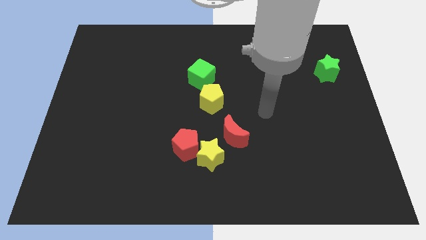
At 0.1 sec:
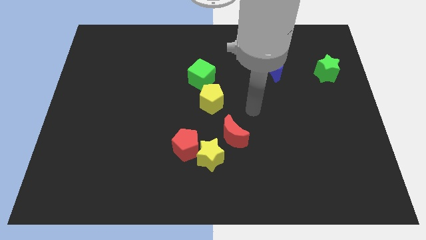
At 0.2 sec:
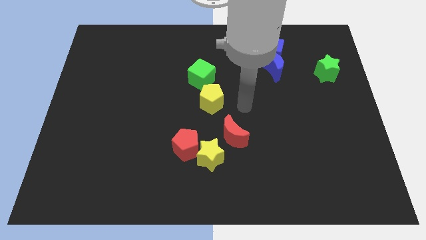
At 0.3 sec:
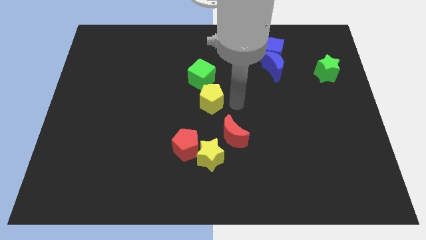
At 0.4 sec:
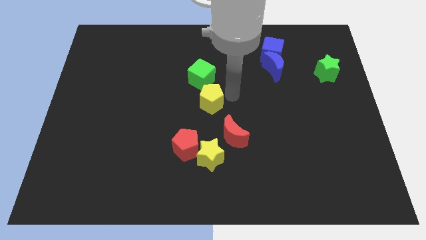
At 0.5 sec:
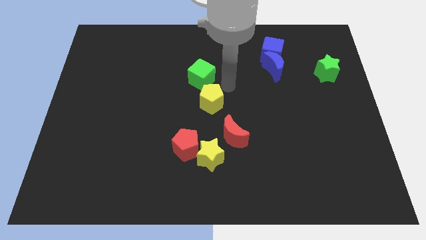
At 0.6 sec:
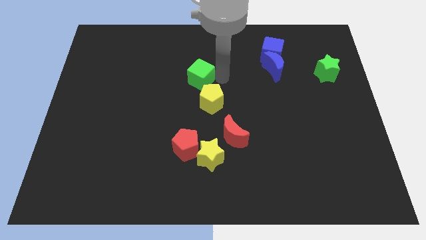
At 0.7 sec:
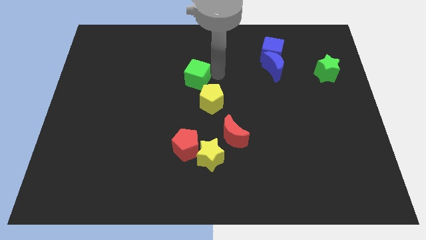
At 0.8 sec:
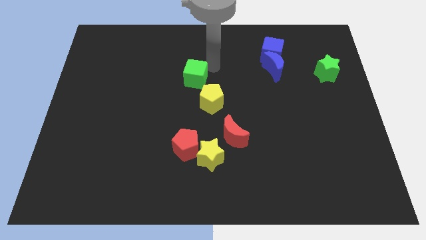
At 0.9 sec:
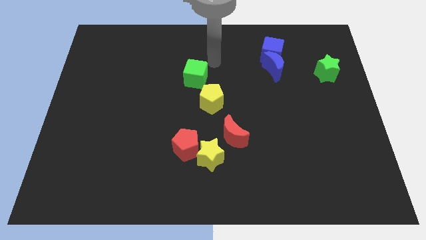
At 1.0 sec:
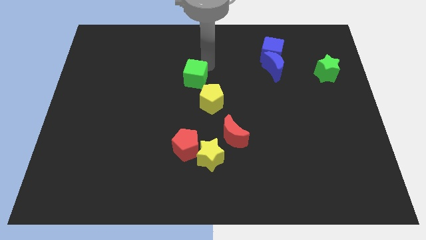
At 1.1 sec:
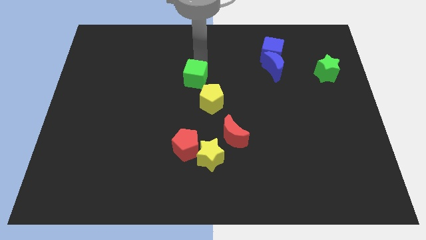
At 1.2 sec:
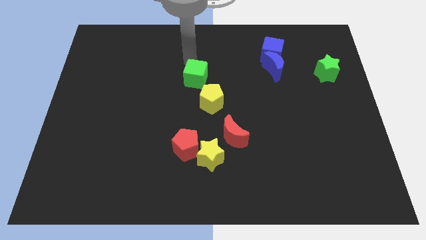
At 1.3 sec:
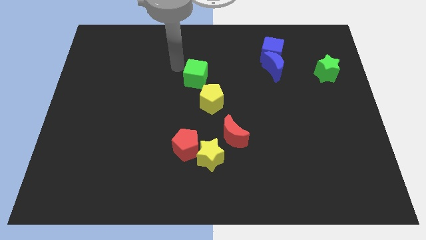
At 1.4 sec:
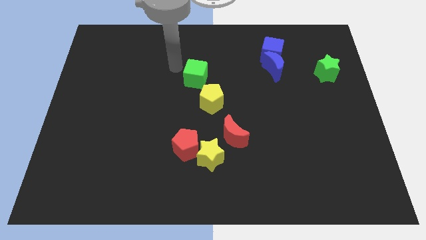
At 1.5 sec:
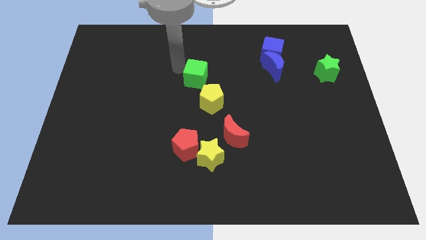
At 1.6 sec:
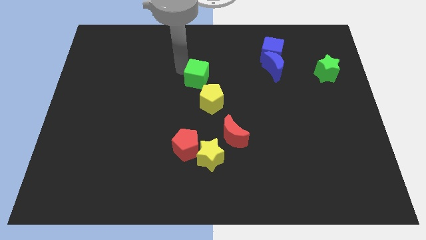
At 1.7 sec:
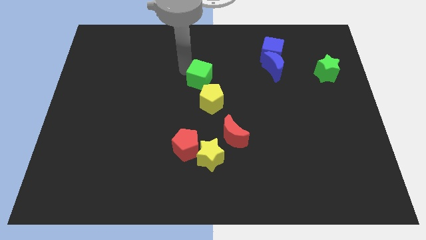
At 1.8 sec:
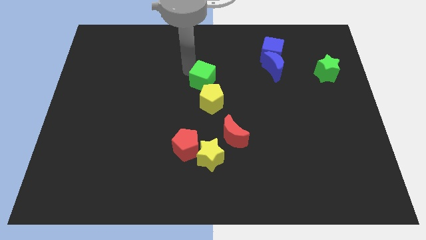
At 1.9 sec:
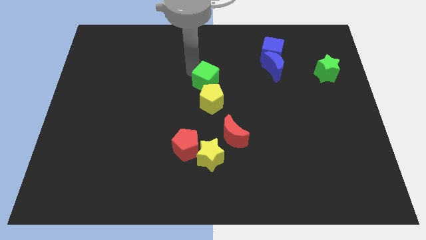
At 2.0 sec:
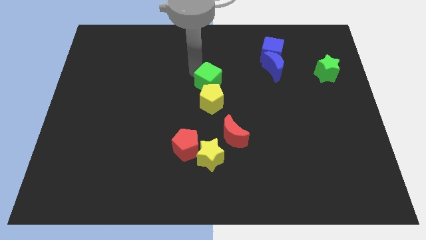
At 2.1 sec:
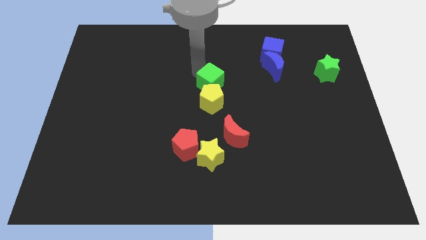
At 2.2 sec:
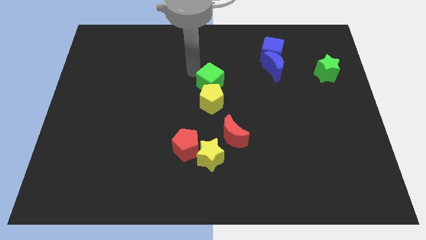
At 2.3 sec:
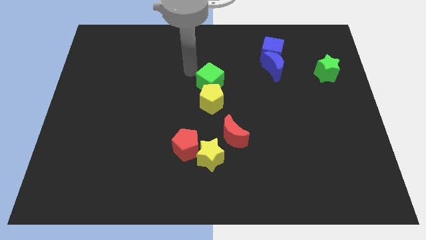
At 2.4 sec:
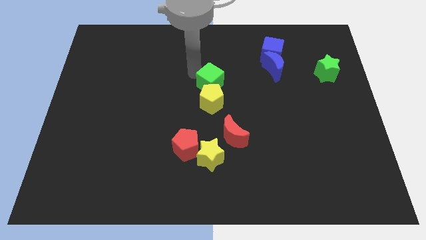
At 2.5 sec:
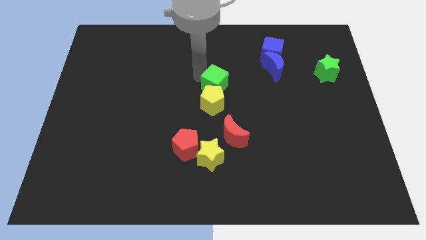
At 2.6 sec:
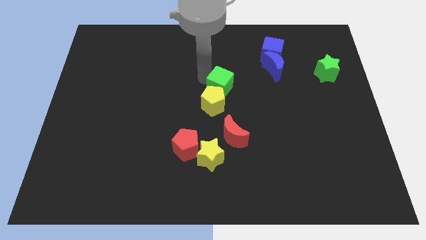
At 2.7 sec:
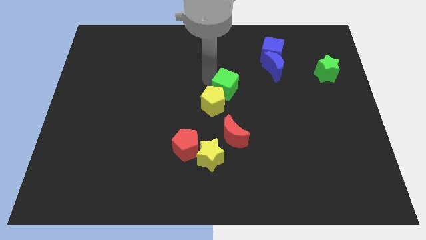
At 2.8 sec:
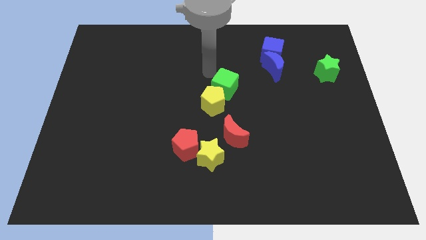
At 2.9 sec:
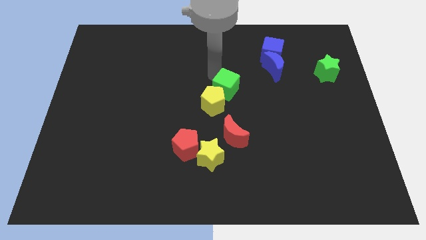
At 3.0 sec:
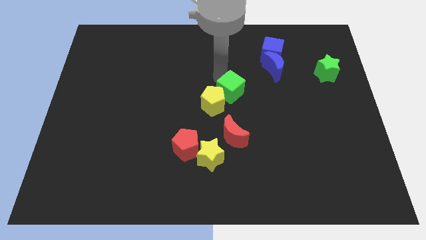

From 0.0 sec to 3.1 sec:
move the green cube slightly diagonally downwards and to the right

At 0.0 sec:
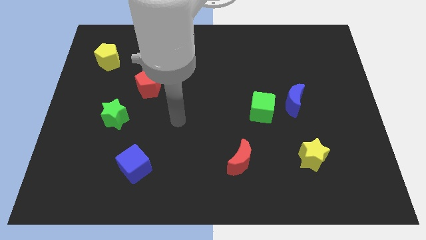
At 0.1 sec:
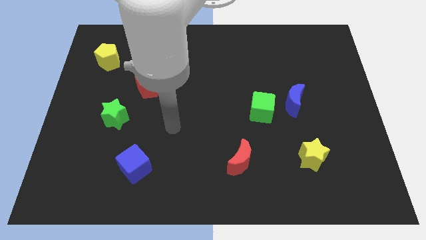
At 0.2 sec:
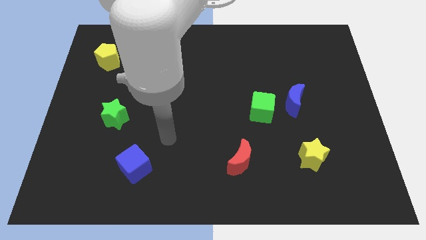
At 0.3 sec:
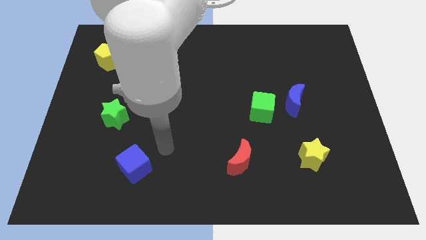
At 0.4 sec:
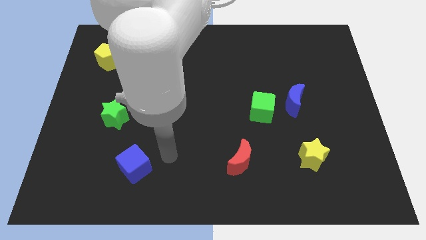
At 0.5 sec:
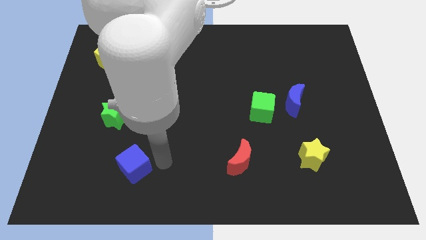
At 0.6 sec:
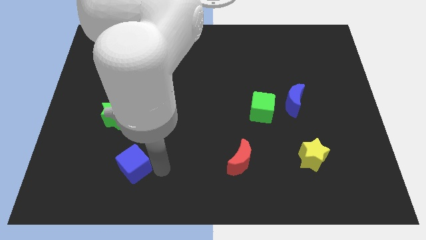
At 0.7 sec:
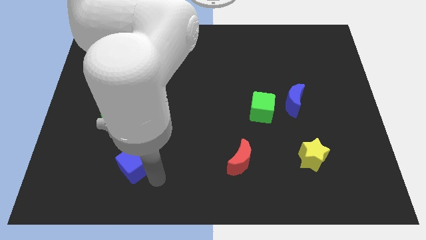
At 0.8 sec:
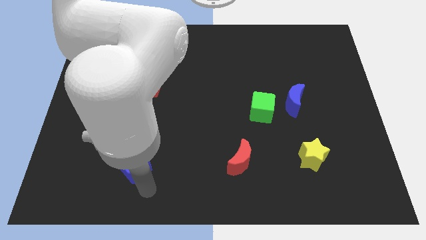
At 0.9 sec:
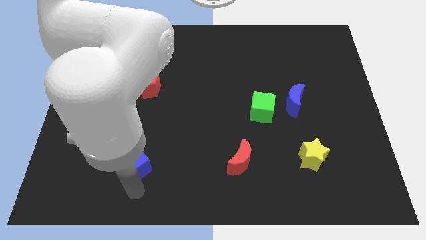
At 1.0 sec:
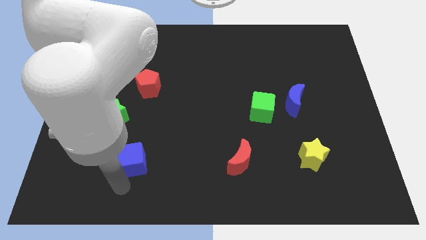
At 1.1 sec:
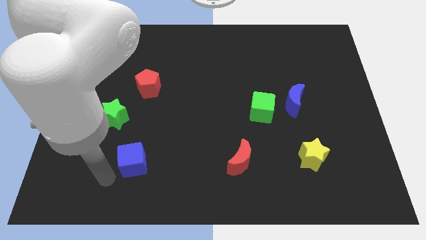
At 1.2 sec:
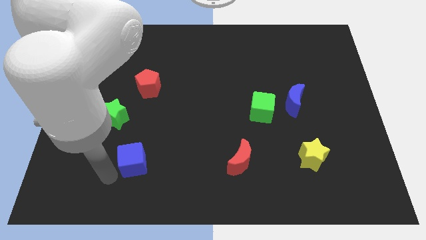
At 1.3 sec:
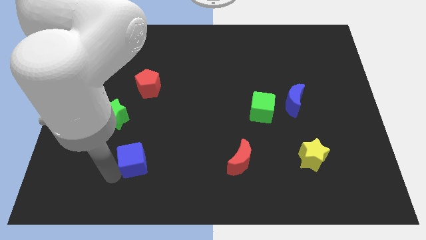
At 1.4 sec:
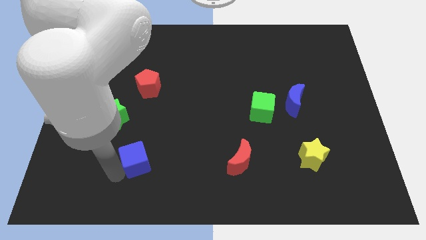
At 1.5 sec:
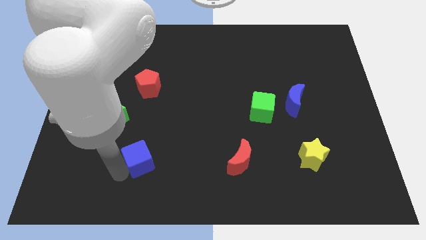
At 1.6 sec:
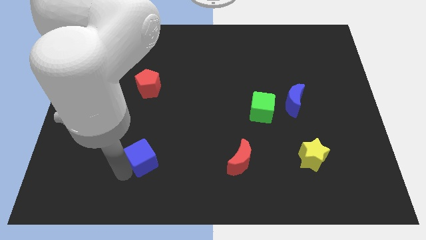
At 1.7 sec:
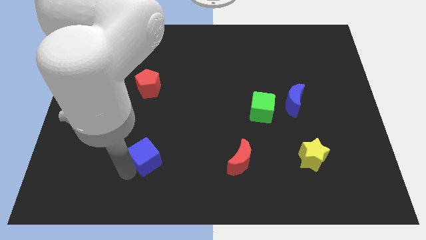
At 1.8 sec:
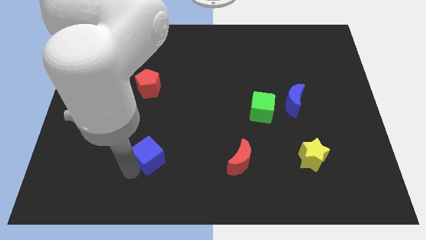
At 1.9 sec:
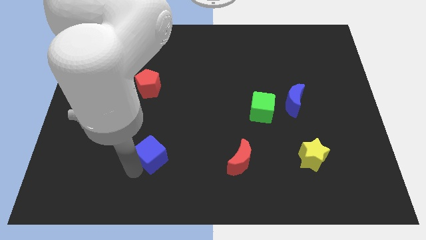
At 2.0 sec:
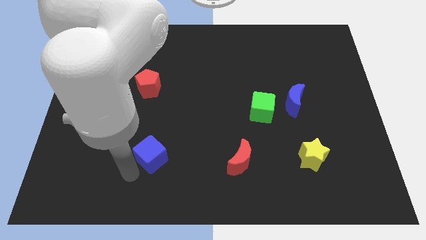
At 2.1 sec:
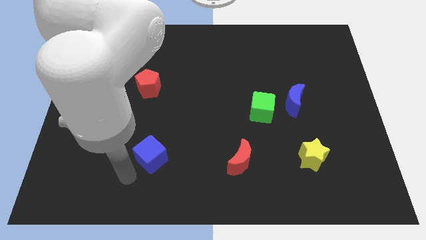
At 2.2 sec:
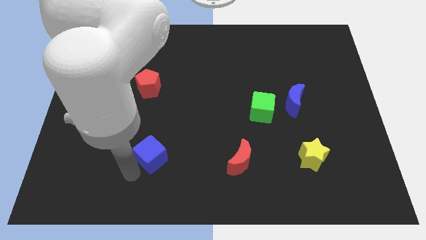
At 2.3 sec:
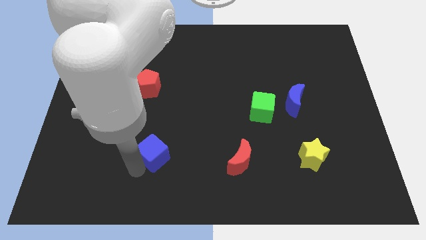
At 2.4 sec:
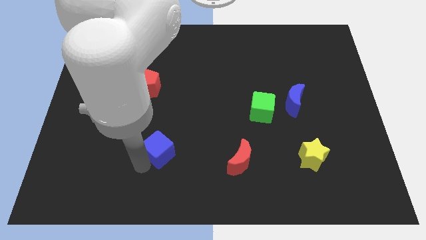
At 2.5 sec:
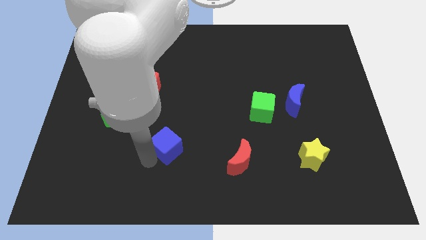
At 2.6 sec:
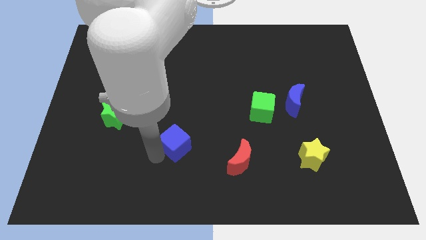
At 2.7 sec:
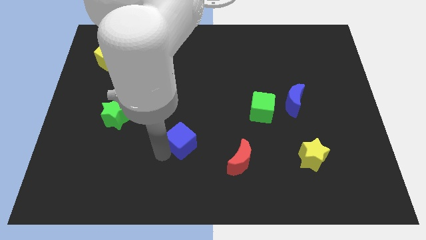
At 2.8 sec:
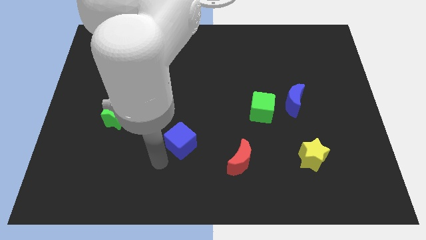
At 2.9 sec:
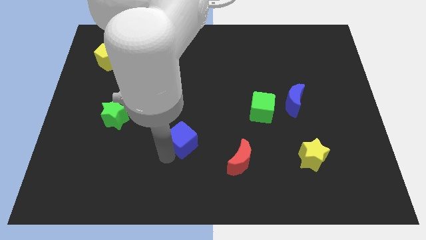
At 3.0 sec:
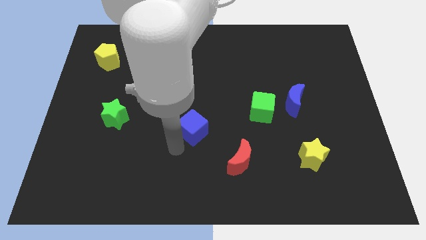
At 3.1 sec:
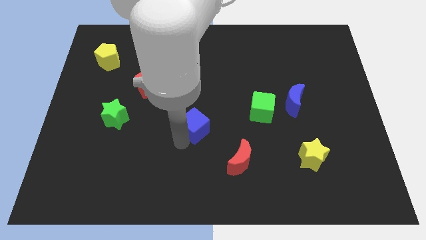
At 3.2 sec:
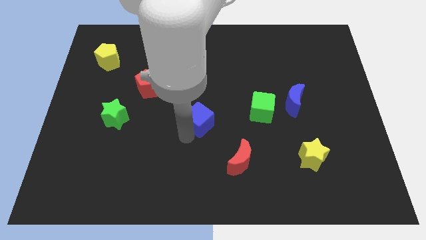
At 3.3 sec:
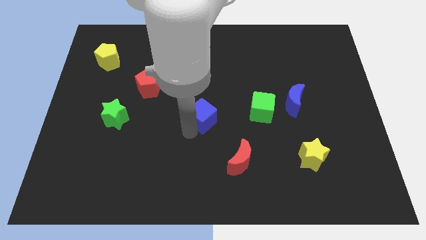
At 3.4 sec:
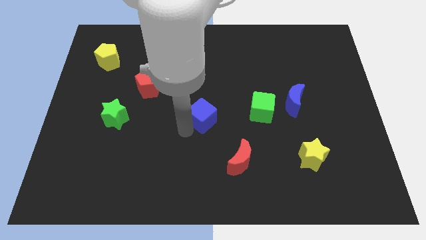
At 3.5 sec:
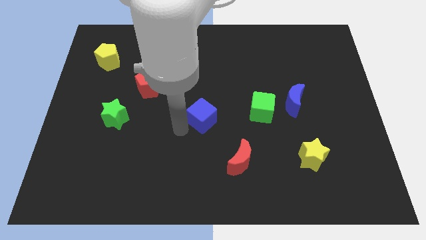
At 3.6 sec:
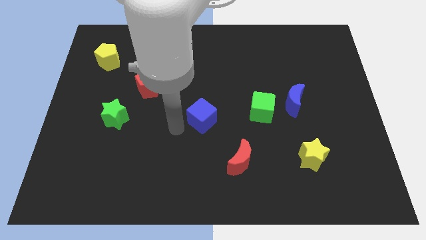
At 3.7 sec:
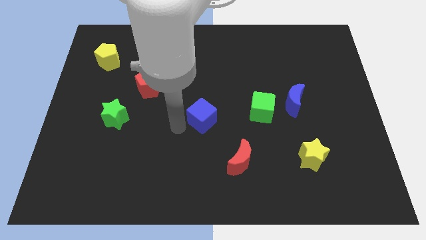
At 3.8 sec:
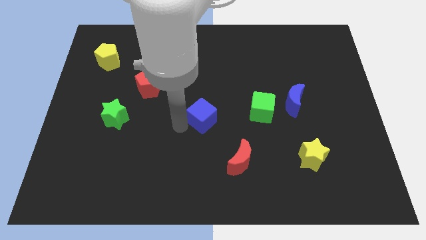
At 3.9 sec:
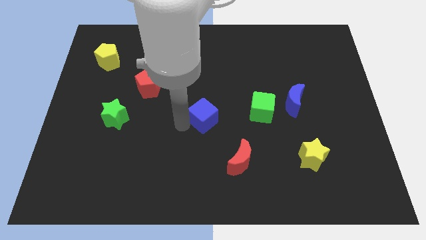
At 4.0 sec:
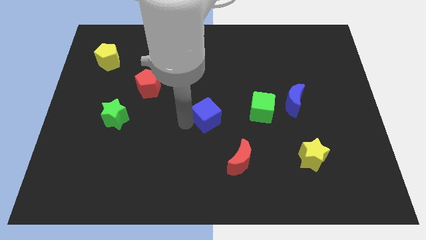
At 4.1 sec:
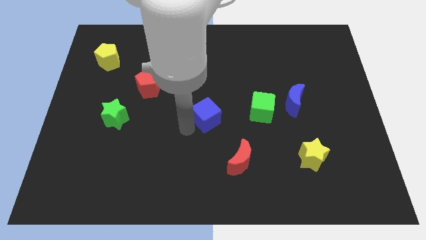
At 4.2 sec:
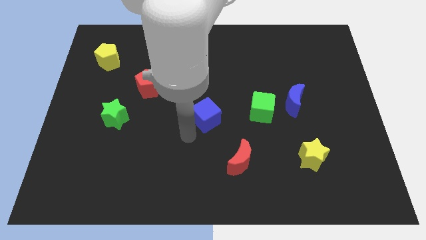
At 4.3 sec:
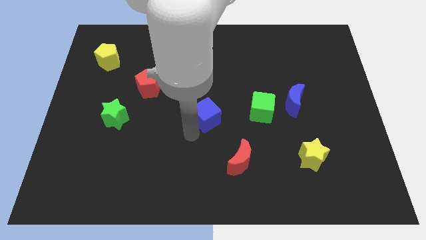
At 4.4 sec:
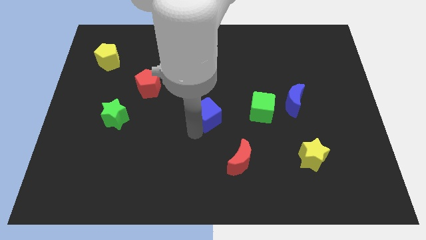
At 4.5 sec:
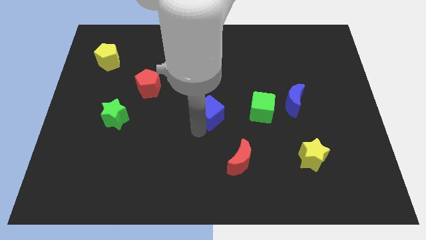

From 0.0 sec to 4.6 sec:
move the blue cube upwards and right diagonally

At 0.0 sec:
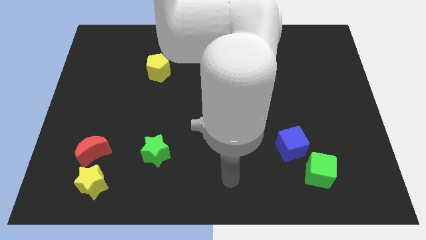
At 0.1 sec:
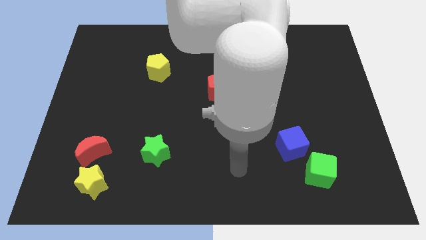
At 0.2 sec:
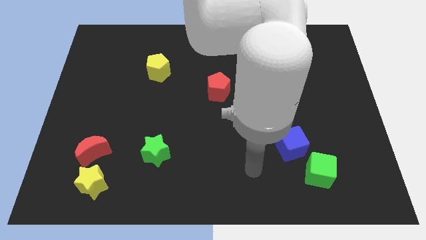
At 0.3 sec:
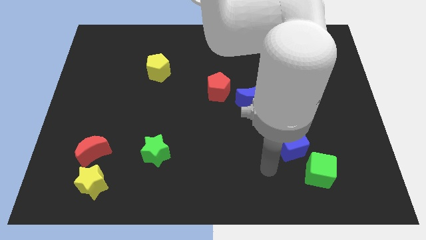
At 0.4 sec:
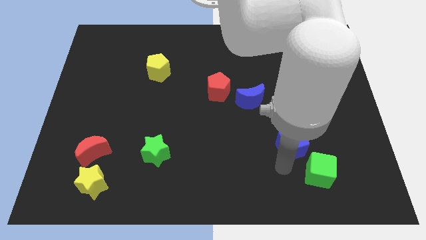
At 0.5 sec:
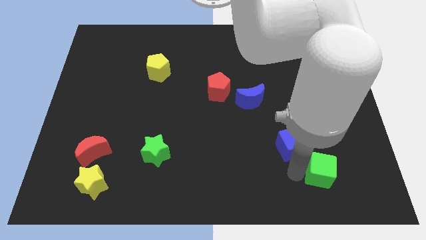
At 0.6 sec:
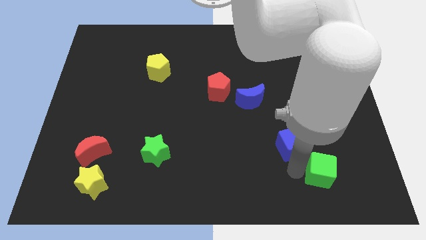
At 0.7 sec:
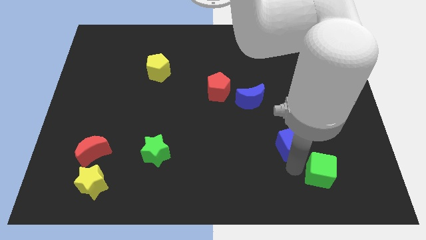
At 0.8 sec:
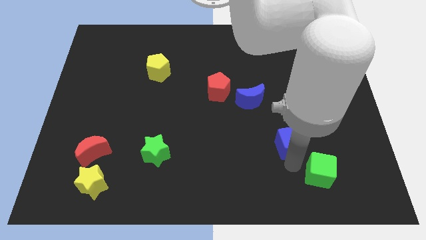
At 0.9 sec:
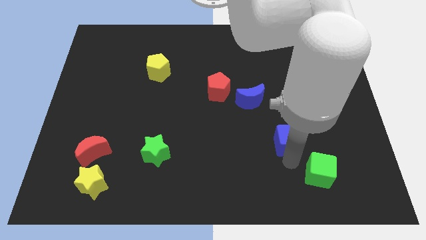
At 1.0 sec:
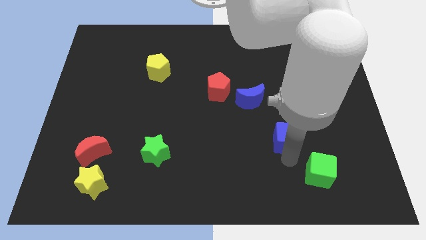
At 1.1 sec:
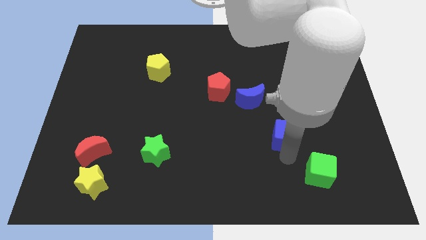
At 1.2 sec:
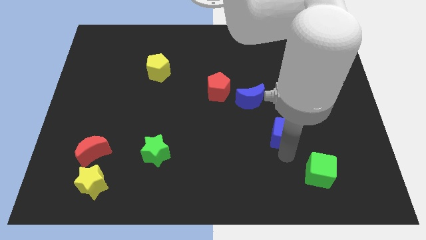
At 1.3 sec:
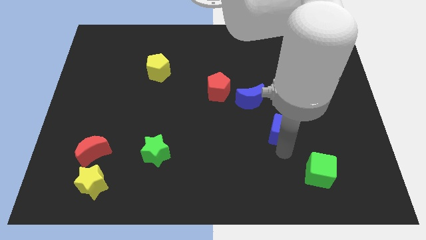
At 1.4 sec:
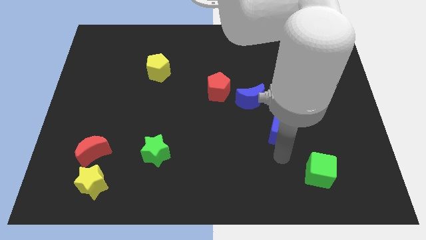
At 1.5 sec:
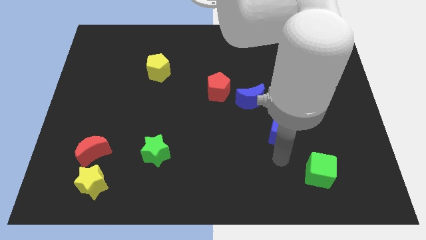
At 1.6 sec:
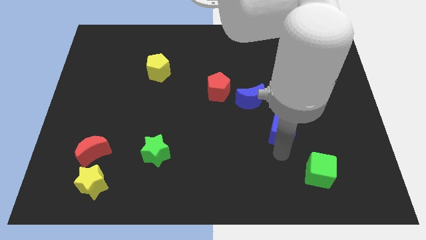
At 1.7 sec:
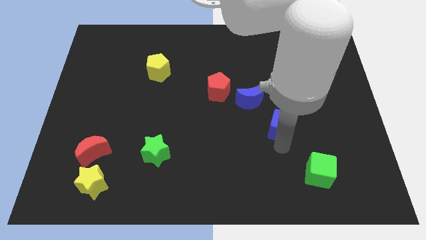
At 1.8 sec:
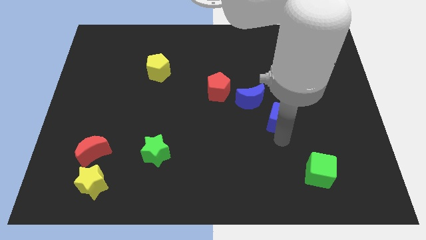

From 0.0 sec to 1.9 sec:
slightly slide the blue cube up
